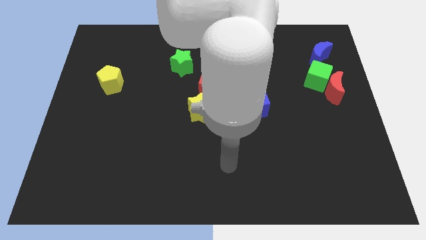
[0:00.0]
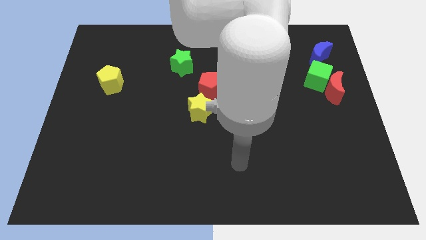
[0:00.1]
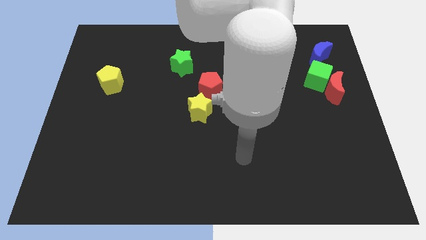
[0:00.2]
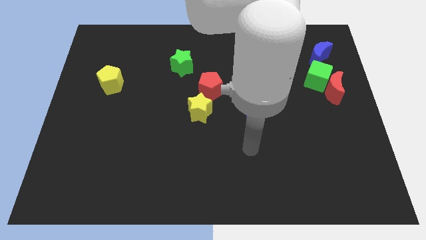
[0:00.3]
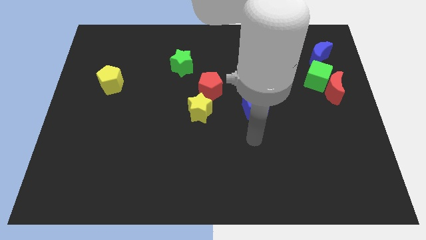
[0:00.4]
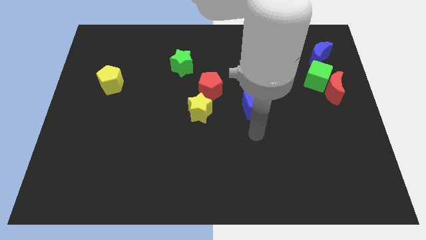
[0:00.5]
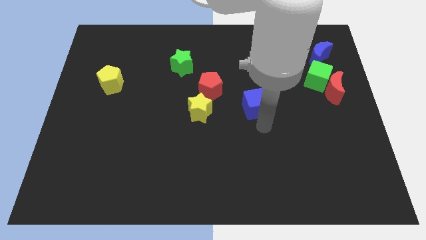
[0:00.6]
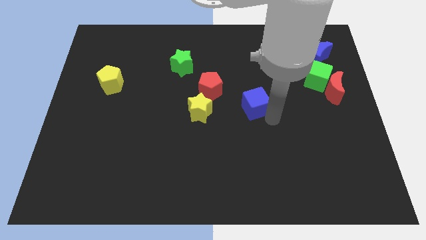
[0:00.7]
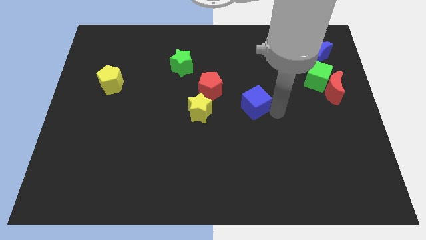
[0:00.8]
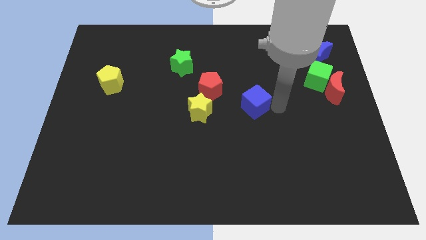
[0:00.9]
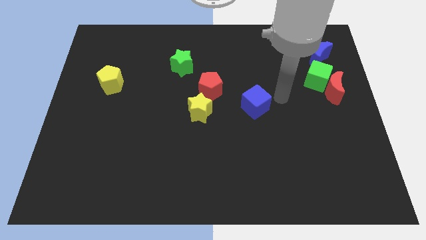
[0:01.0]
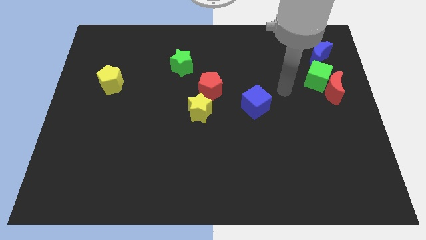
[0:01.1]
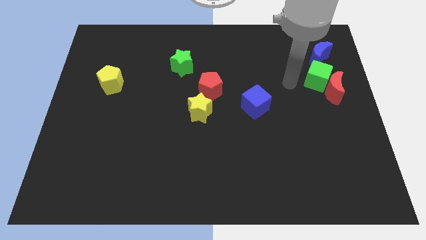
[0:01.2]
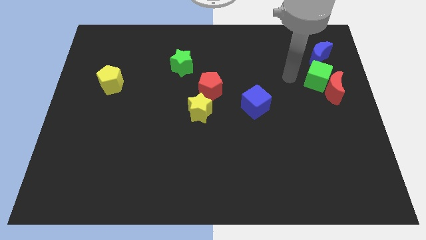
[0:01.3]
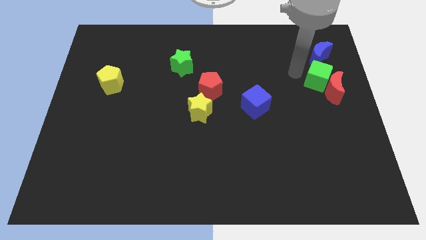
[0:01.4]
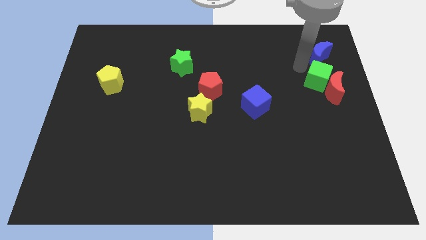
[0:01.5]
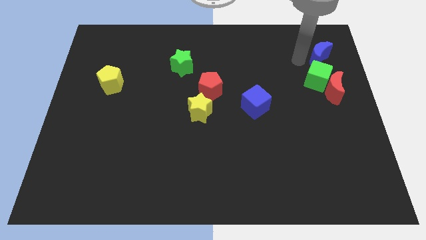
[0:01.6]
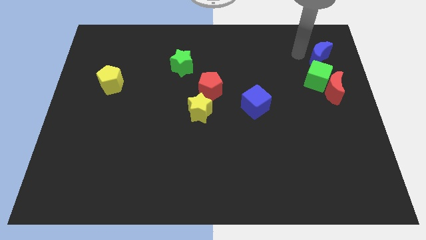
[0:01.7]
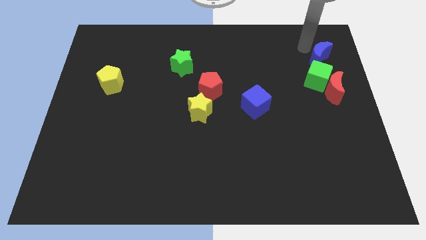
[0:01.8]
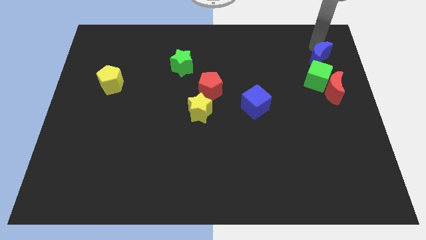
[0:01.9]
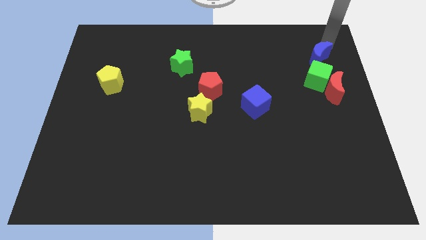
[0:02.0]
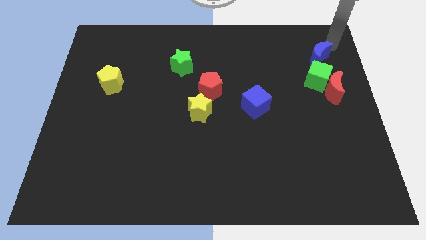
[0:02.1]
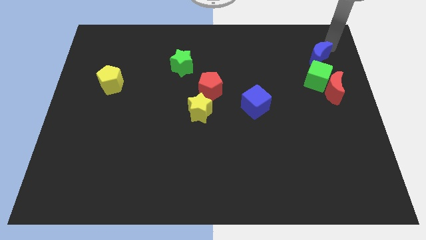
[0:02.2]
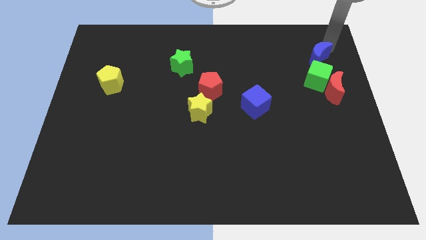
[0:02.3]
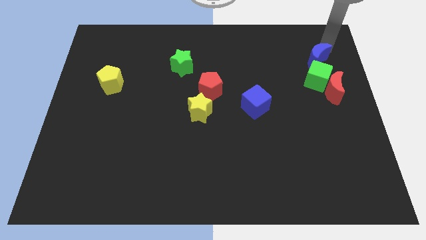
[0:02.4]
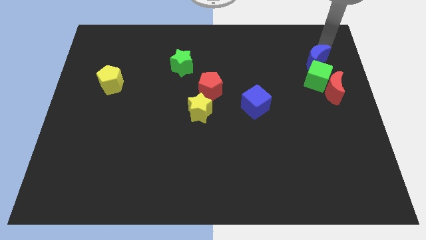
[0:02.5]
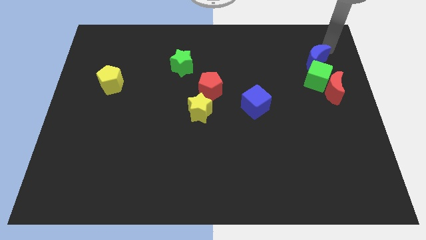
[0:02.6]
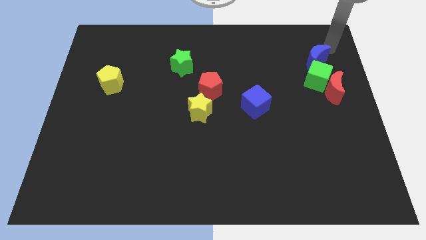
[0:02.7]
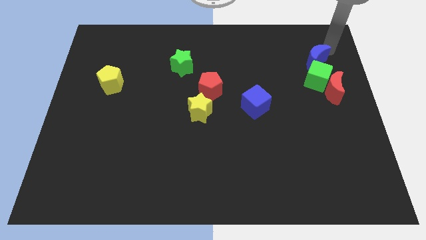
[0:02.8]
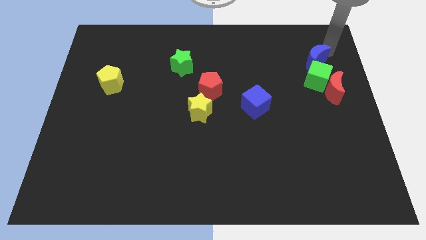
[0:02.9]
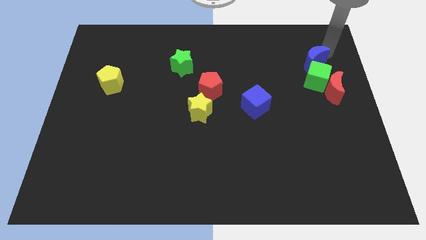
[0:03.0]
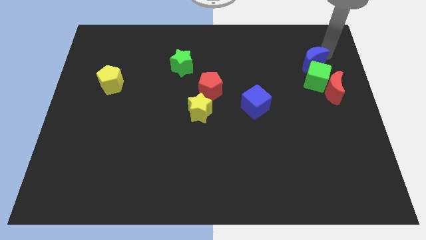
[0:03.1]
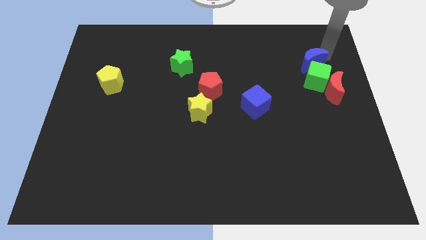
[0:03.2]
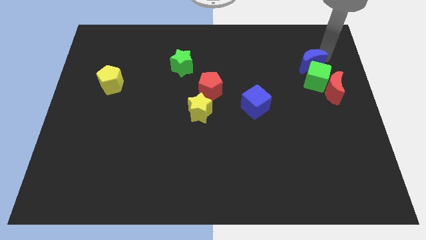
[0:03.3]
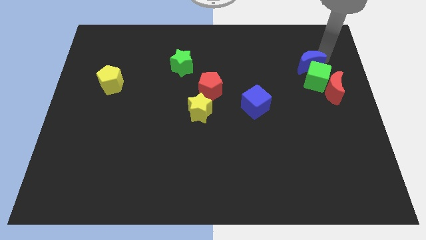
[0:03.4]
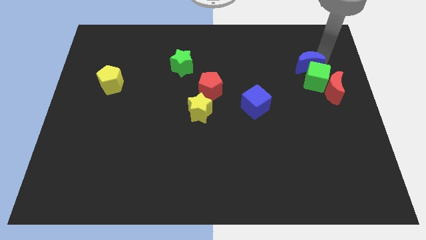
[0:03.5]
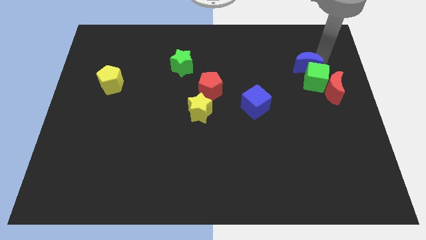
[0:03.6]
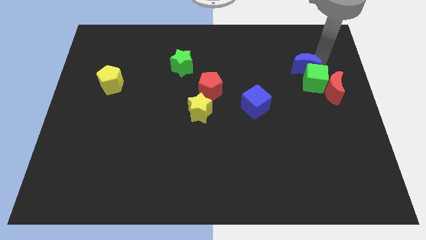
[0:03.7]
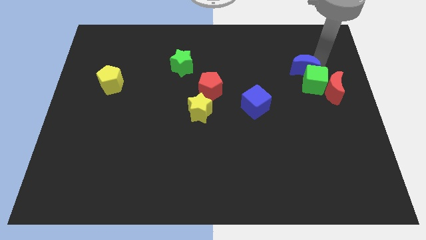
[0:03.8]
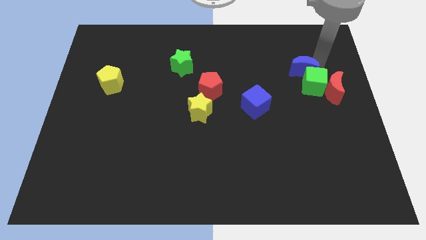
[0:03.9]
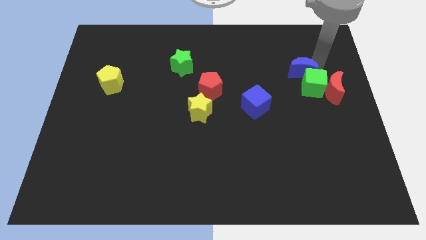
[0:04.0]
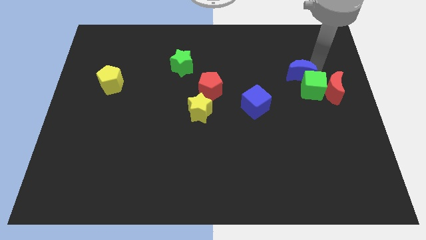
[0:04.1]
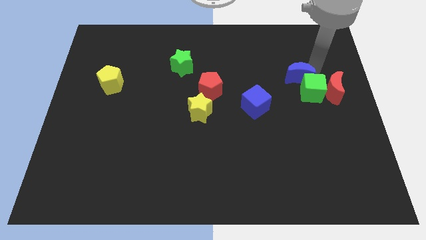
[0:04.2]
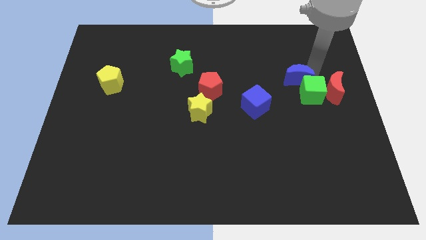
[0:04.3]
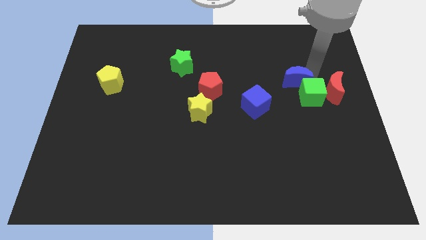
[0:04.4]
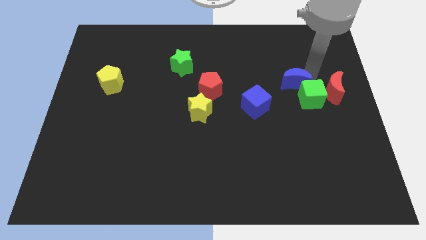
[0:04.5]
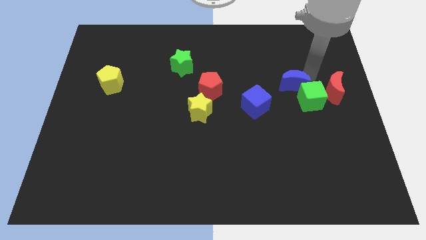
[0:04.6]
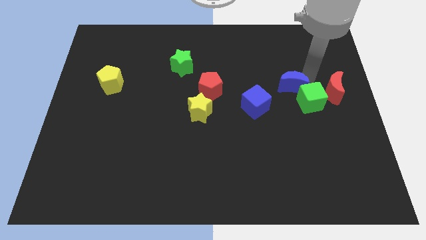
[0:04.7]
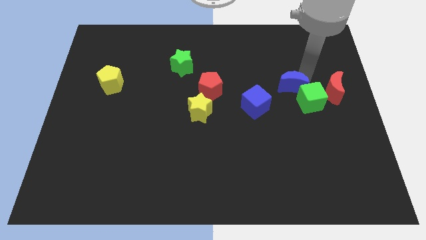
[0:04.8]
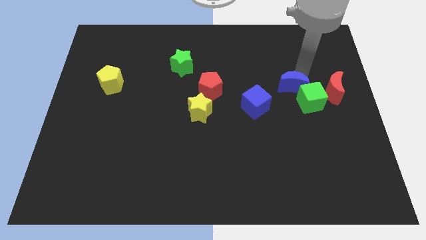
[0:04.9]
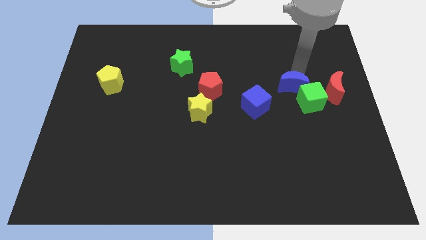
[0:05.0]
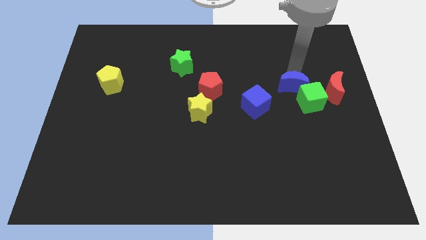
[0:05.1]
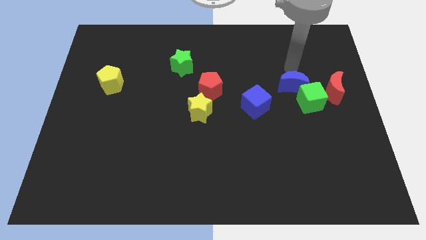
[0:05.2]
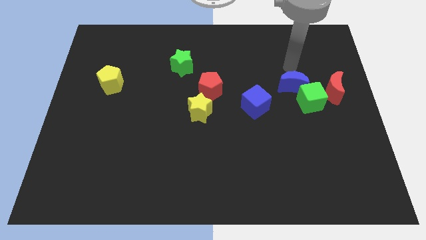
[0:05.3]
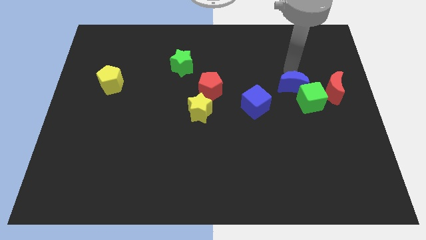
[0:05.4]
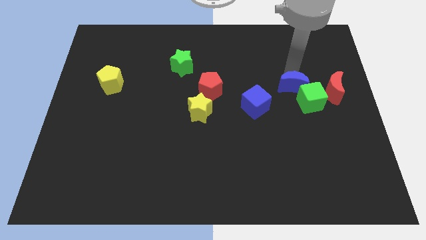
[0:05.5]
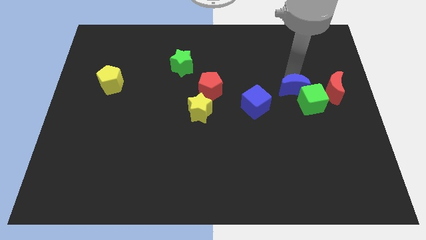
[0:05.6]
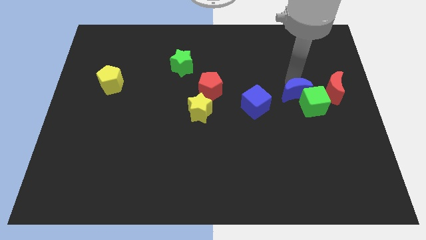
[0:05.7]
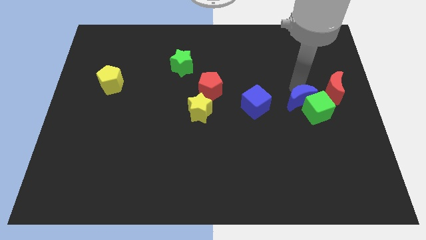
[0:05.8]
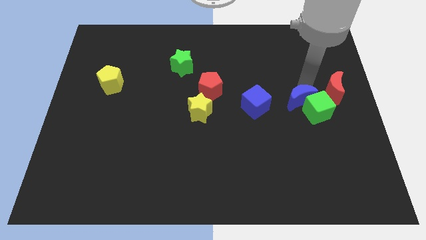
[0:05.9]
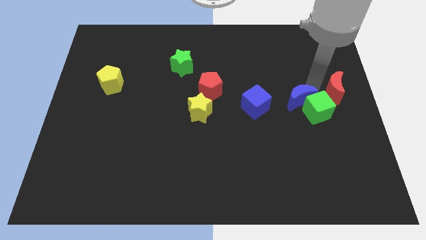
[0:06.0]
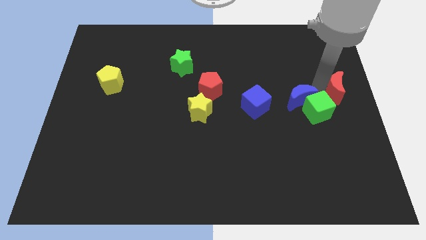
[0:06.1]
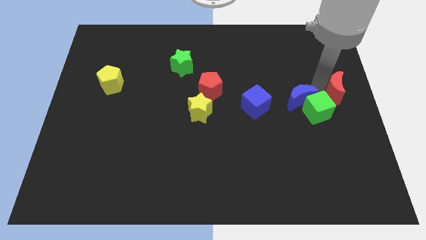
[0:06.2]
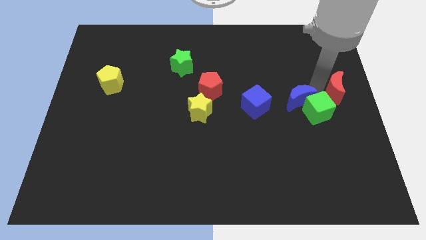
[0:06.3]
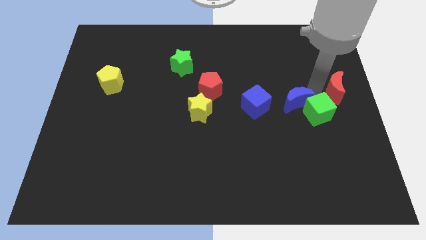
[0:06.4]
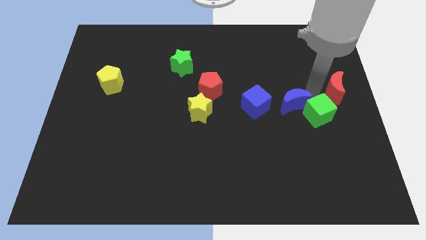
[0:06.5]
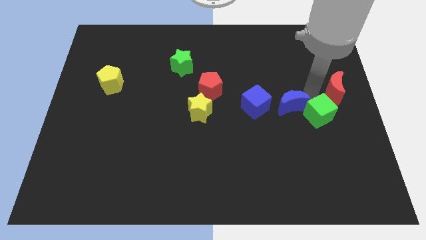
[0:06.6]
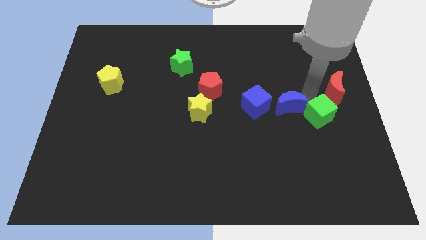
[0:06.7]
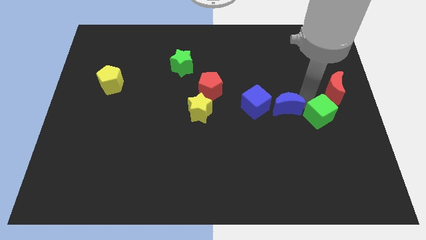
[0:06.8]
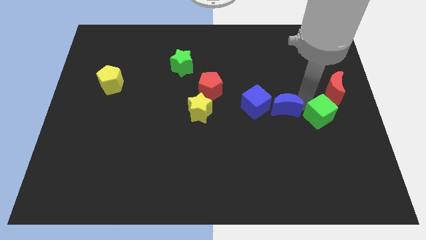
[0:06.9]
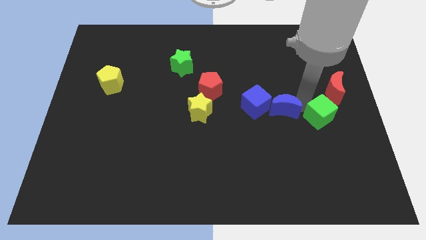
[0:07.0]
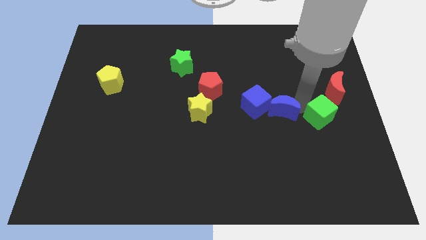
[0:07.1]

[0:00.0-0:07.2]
slide the blue moon diagonally down and left

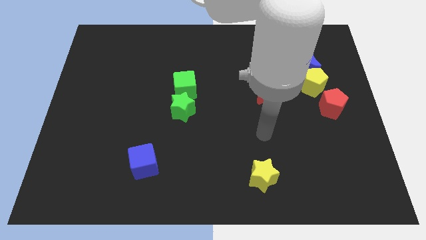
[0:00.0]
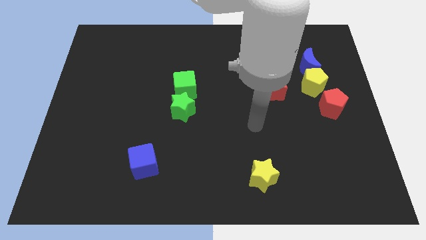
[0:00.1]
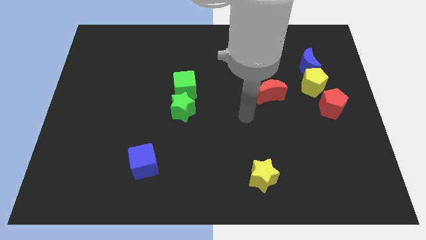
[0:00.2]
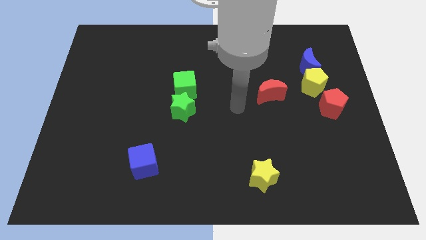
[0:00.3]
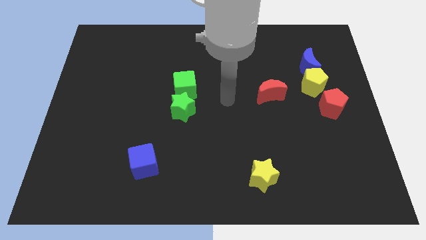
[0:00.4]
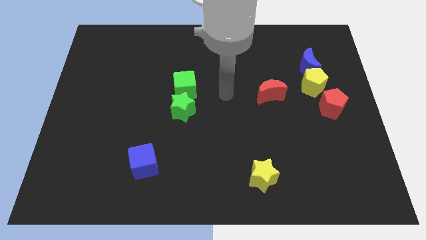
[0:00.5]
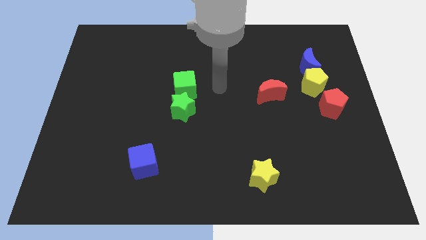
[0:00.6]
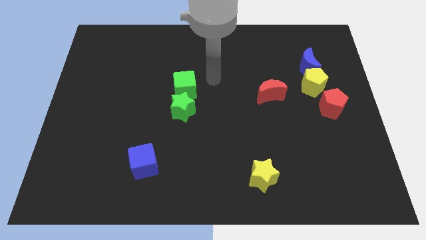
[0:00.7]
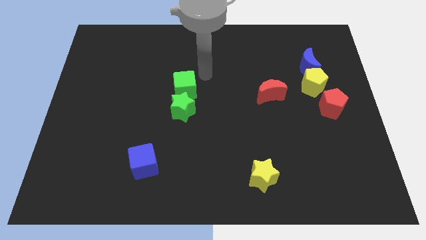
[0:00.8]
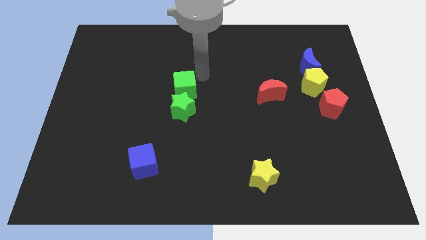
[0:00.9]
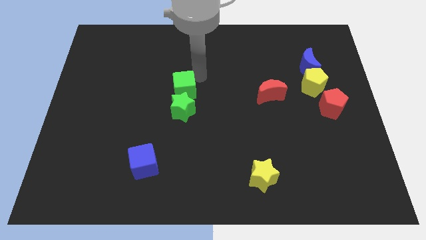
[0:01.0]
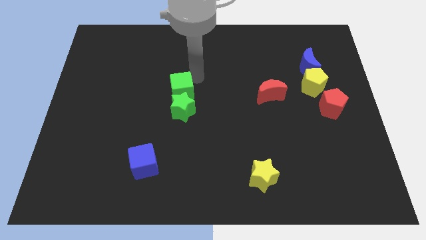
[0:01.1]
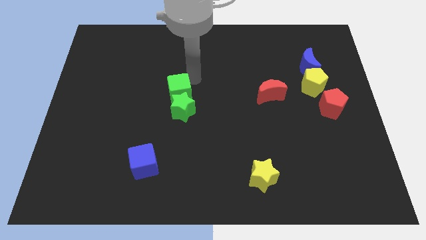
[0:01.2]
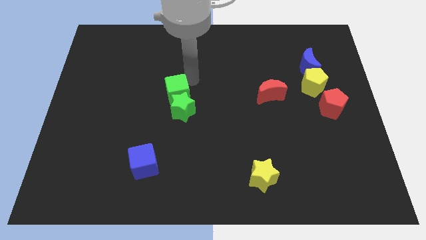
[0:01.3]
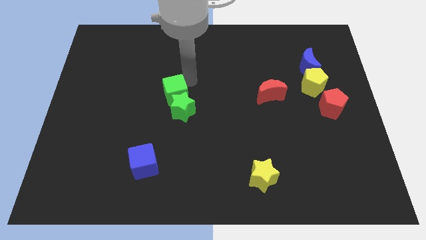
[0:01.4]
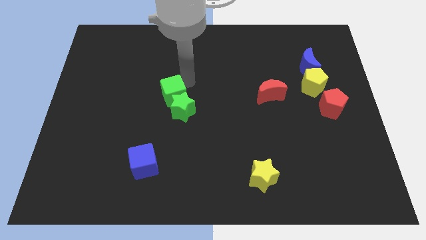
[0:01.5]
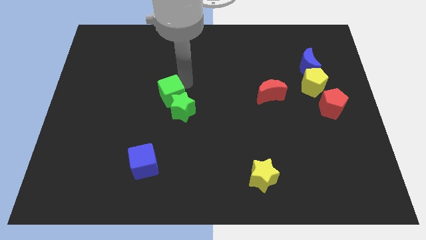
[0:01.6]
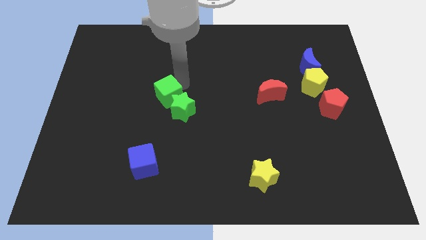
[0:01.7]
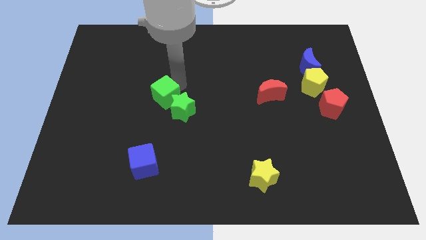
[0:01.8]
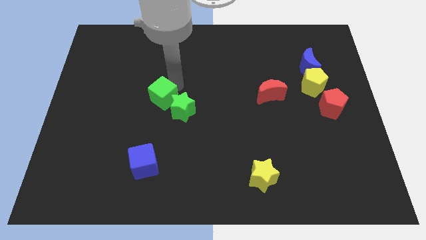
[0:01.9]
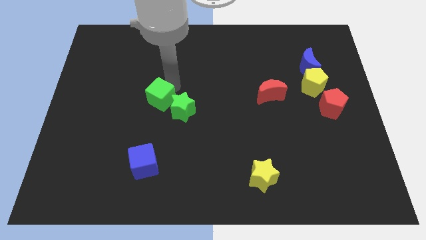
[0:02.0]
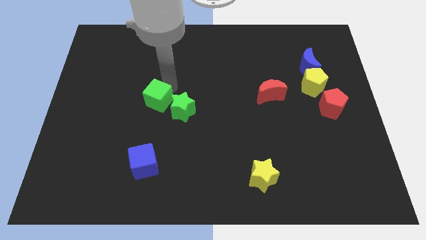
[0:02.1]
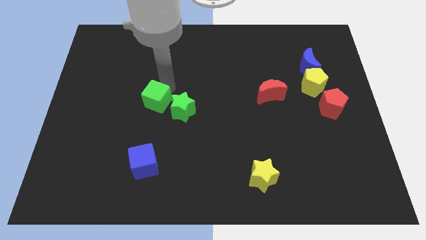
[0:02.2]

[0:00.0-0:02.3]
slightly push the green cube down and then to the left
